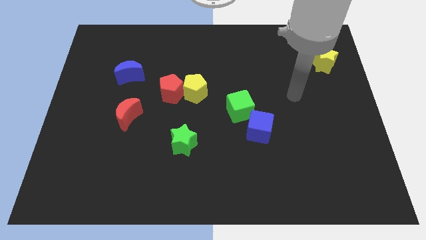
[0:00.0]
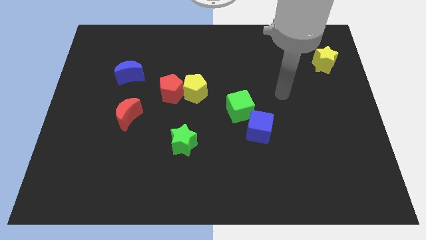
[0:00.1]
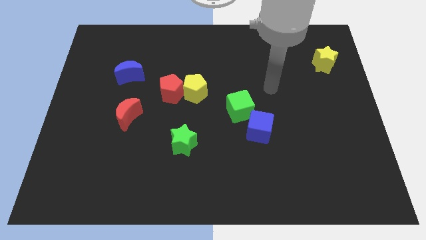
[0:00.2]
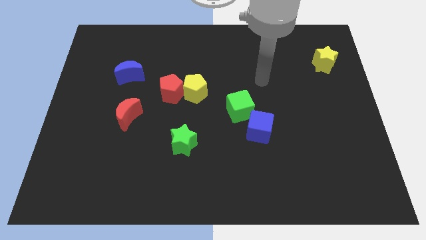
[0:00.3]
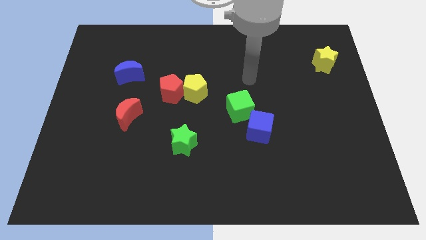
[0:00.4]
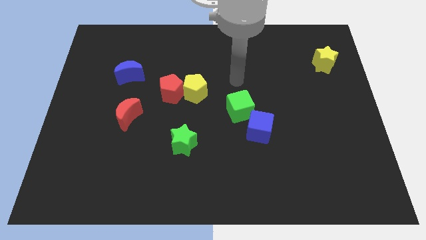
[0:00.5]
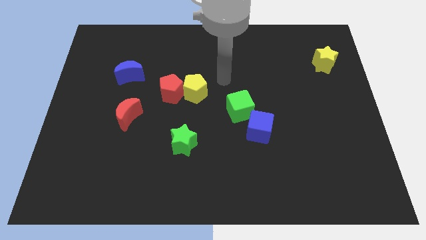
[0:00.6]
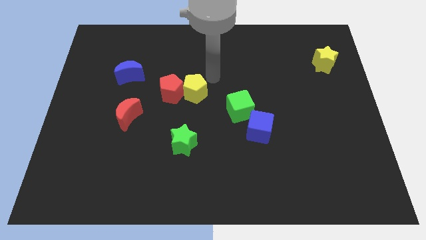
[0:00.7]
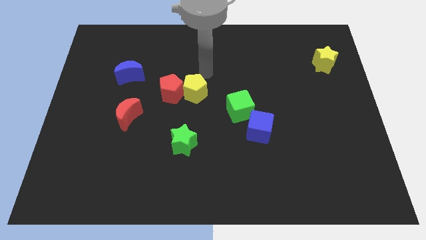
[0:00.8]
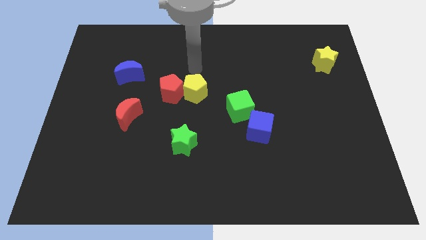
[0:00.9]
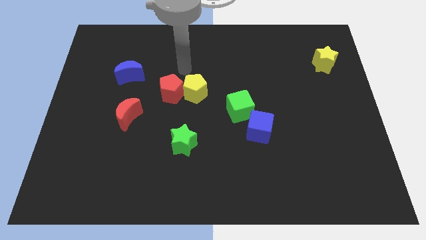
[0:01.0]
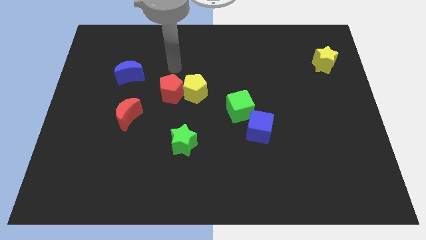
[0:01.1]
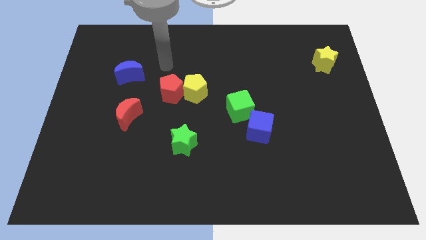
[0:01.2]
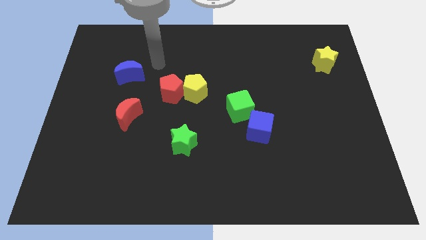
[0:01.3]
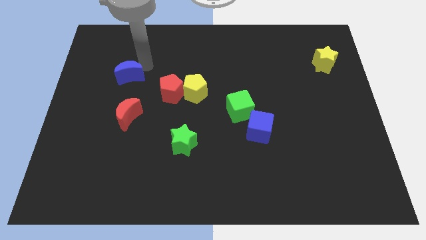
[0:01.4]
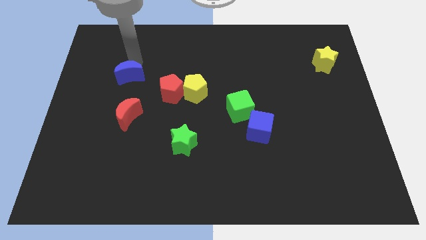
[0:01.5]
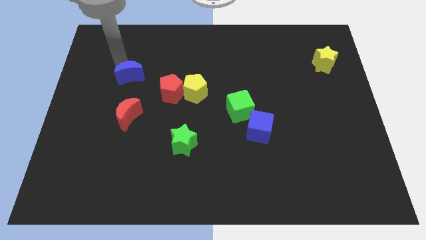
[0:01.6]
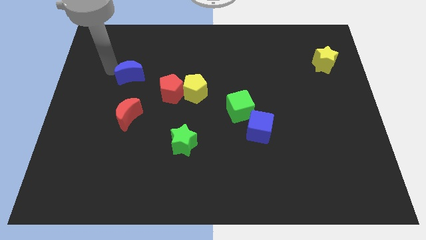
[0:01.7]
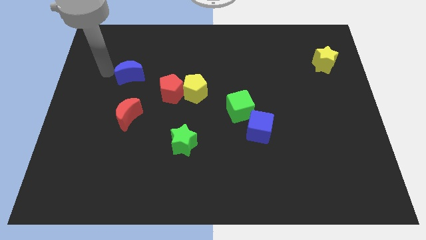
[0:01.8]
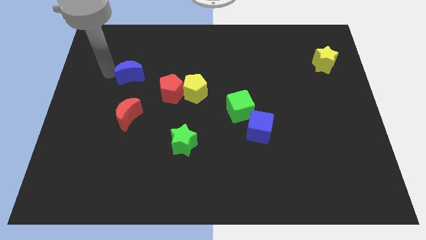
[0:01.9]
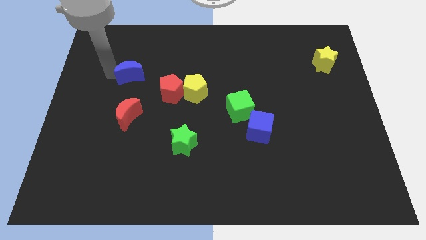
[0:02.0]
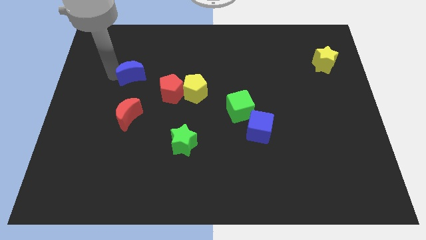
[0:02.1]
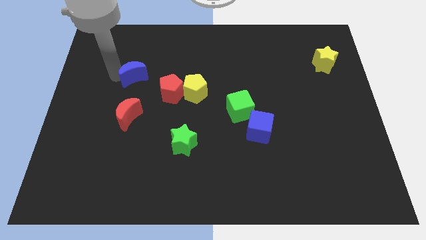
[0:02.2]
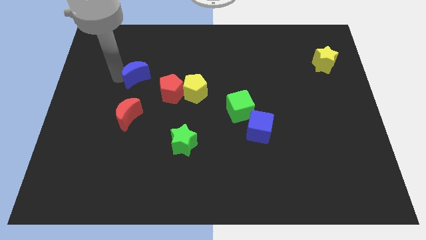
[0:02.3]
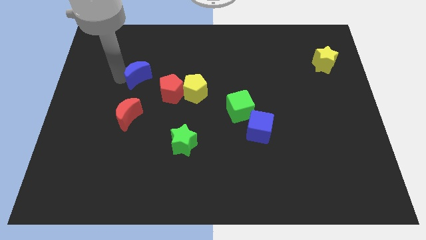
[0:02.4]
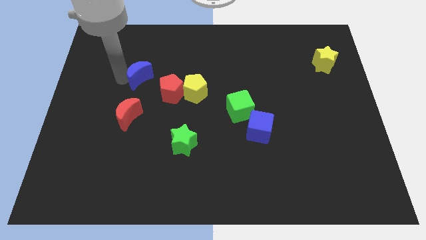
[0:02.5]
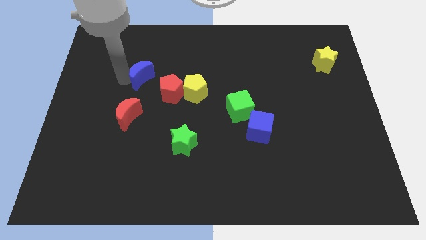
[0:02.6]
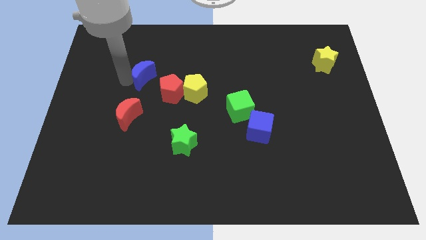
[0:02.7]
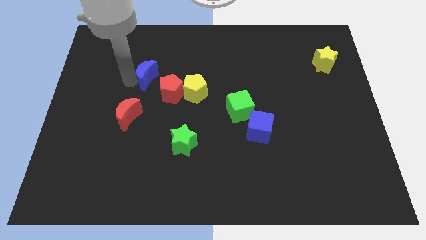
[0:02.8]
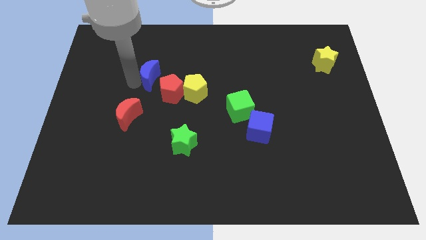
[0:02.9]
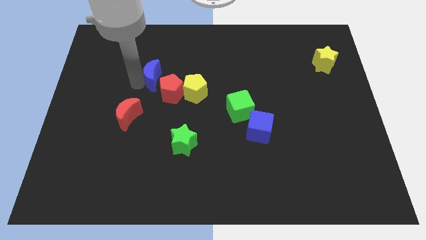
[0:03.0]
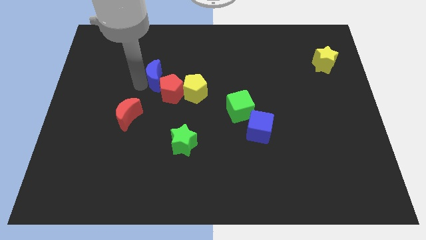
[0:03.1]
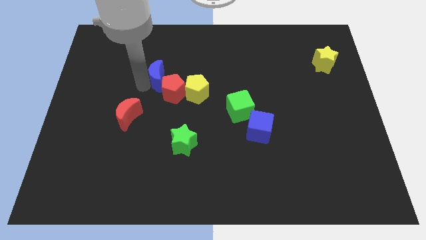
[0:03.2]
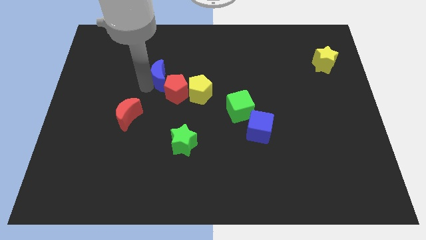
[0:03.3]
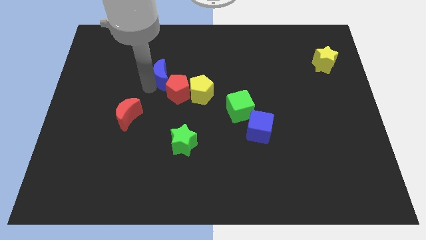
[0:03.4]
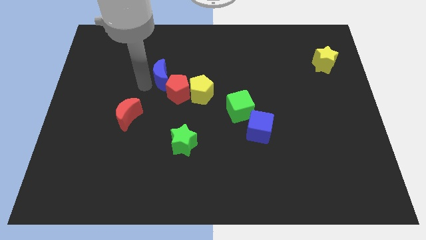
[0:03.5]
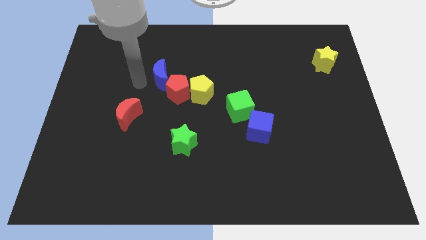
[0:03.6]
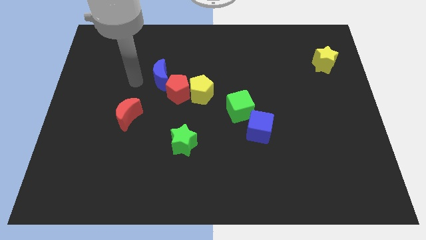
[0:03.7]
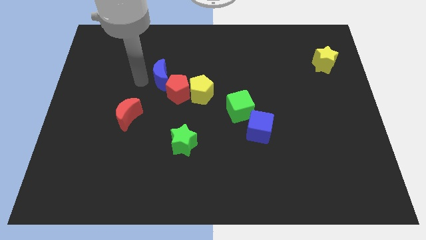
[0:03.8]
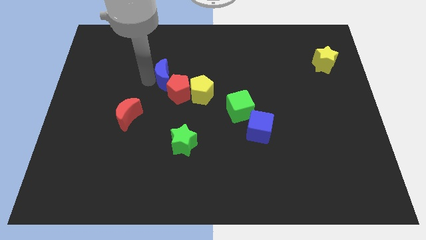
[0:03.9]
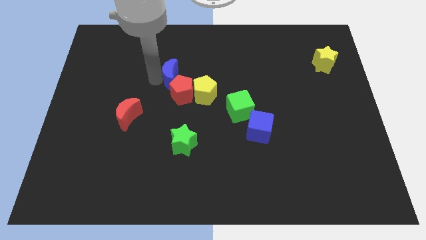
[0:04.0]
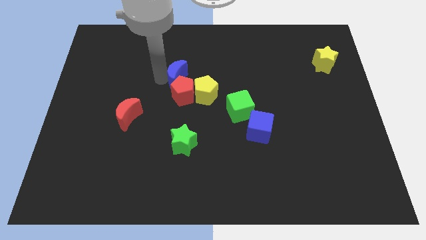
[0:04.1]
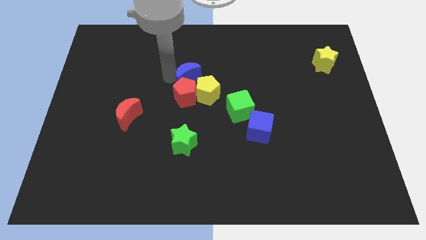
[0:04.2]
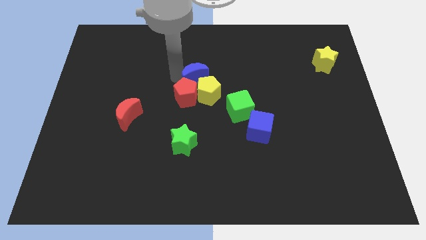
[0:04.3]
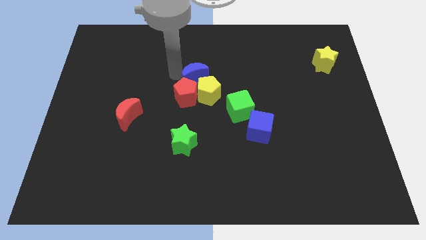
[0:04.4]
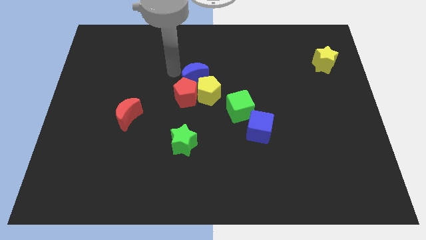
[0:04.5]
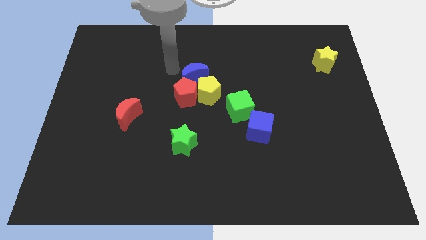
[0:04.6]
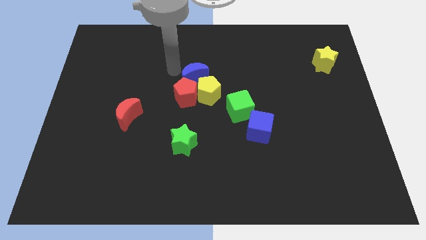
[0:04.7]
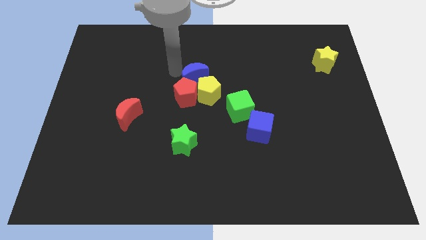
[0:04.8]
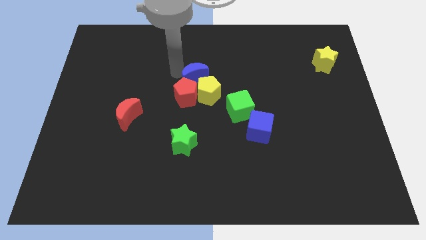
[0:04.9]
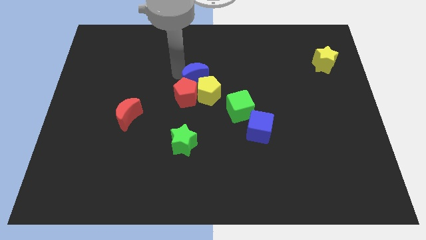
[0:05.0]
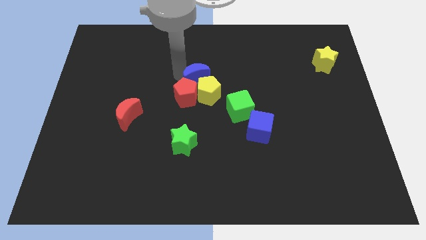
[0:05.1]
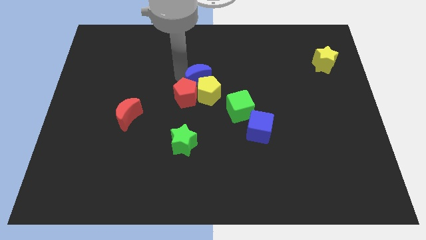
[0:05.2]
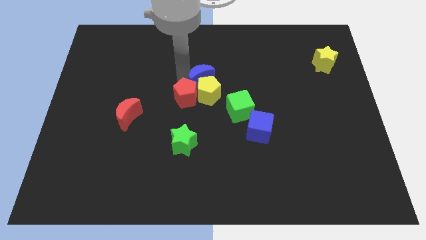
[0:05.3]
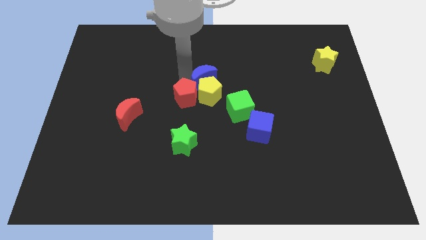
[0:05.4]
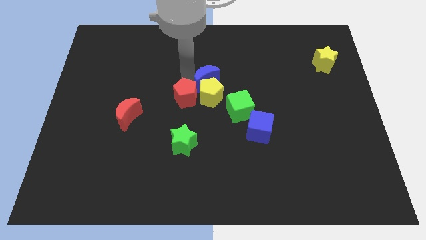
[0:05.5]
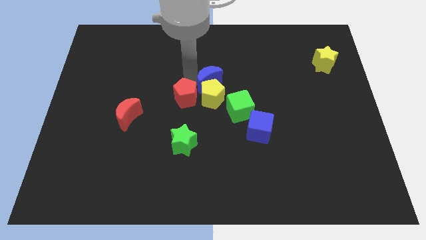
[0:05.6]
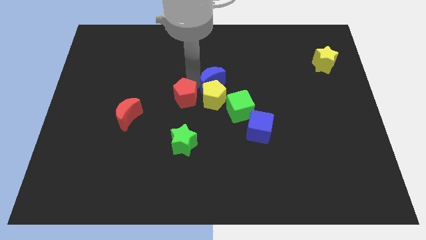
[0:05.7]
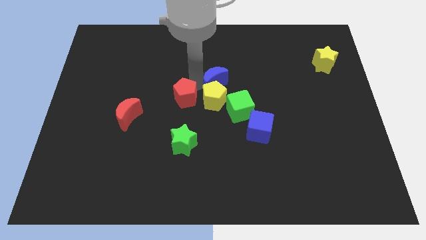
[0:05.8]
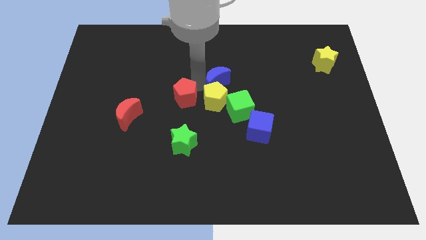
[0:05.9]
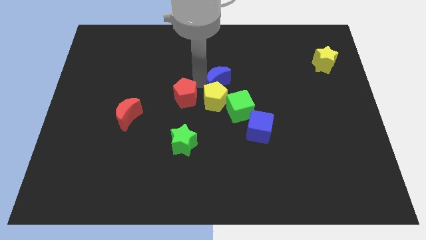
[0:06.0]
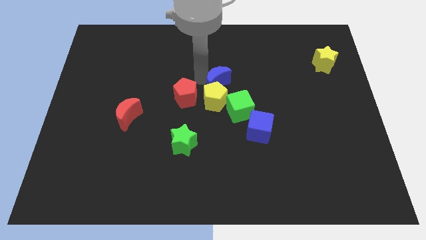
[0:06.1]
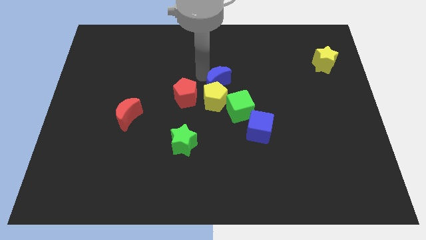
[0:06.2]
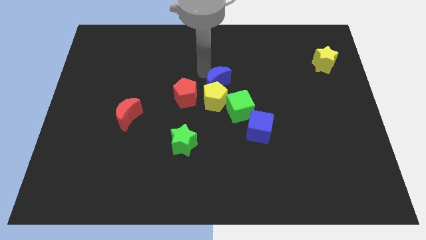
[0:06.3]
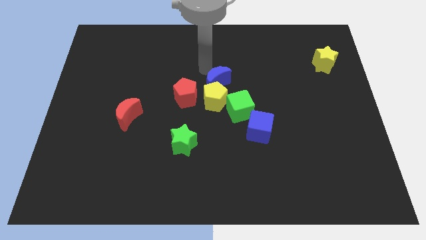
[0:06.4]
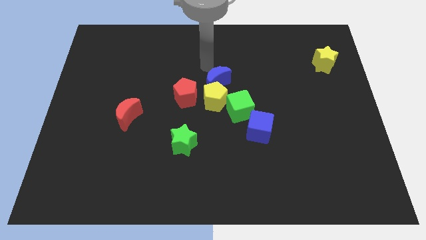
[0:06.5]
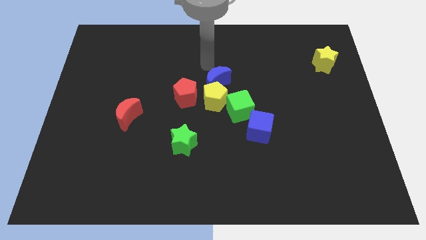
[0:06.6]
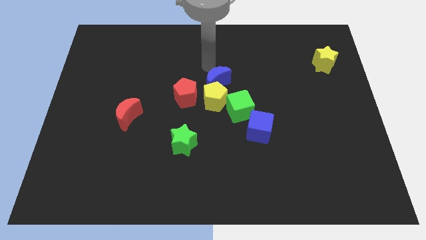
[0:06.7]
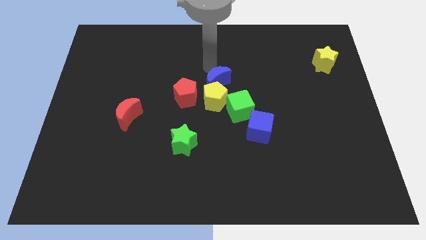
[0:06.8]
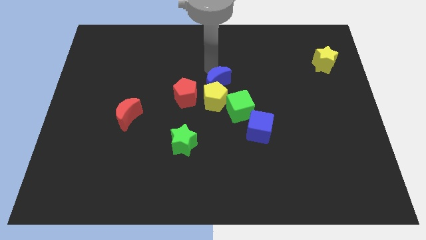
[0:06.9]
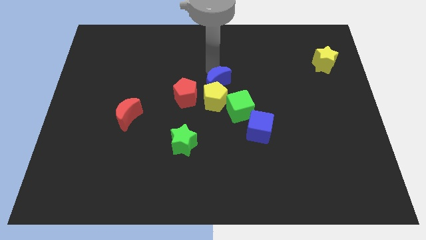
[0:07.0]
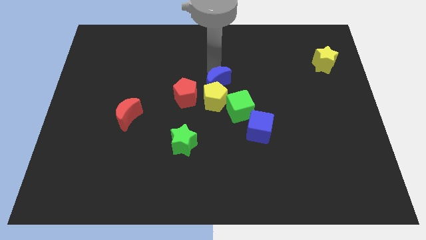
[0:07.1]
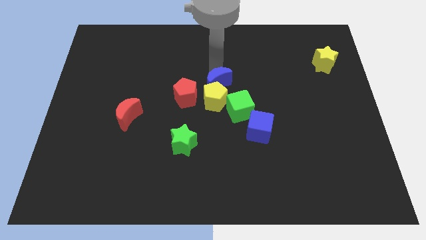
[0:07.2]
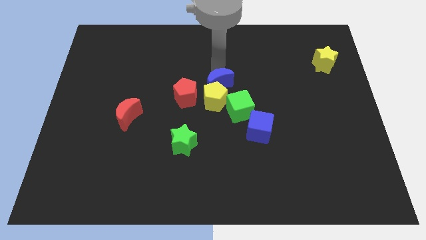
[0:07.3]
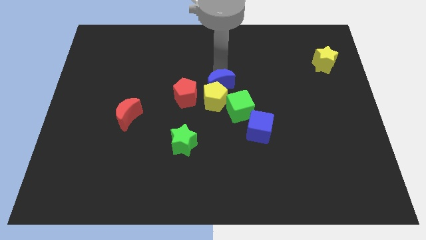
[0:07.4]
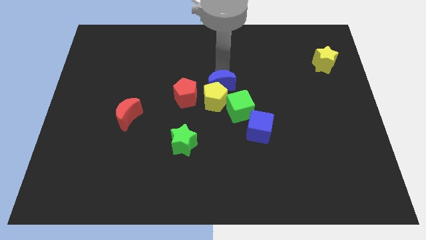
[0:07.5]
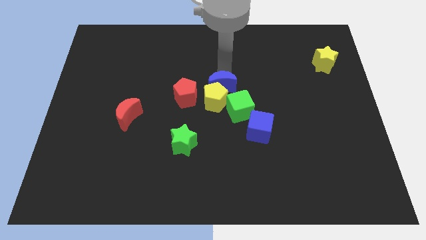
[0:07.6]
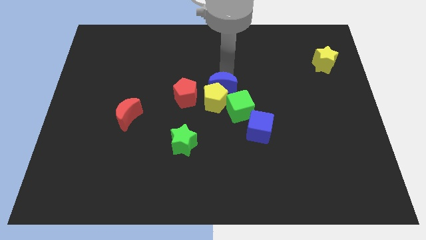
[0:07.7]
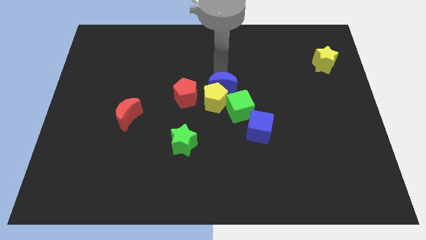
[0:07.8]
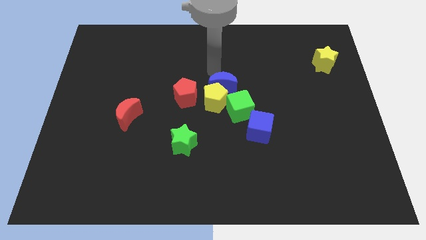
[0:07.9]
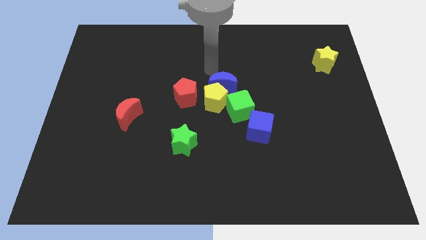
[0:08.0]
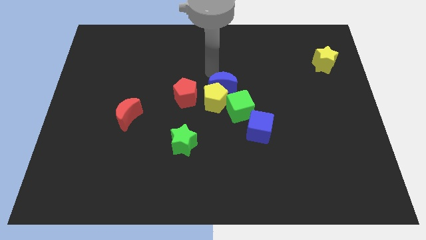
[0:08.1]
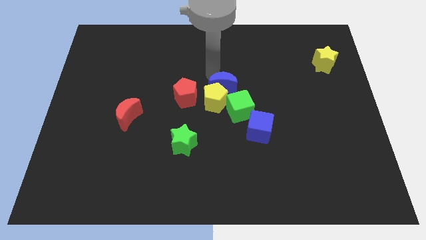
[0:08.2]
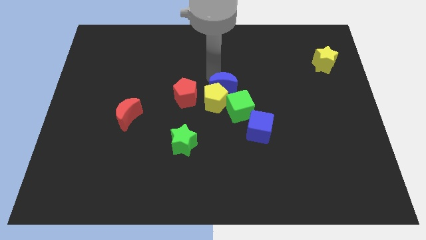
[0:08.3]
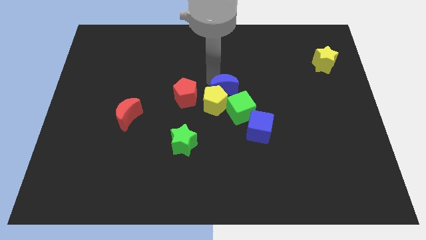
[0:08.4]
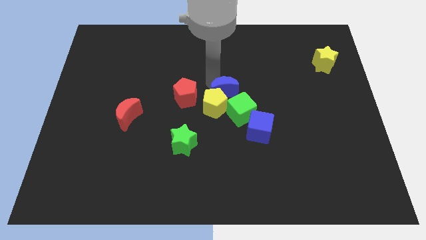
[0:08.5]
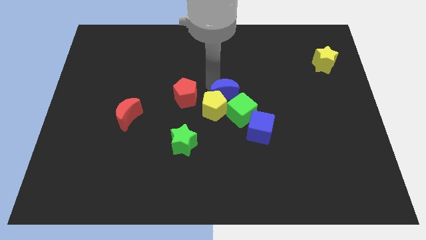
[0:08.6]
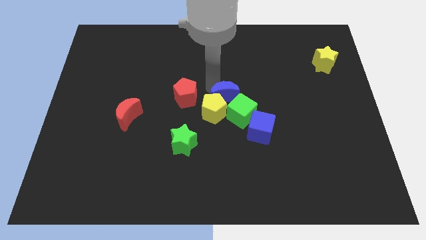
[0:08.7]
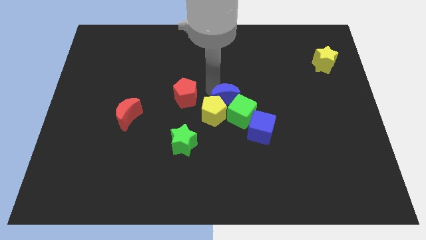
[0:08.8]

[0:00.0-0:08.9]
slide the blue moon to the green cube
